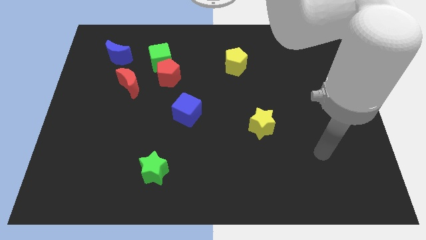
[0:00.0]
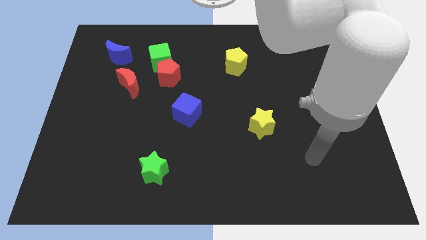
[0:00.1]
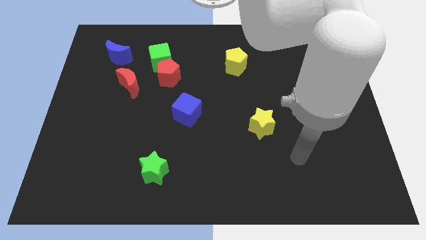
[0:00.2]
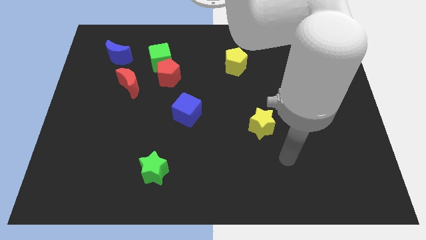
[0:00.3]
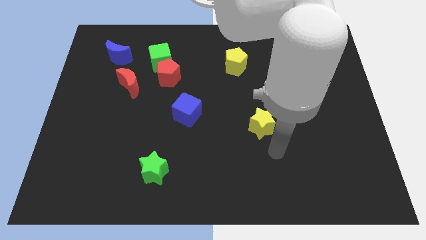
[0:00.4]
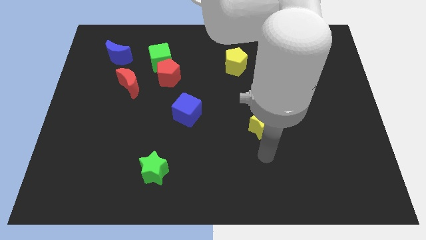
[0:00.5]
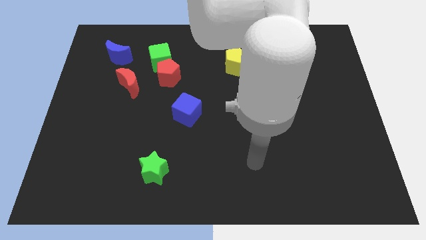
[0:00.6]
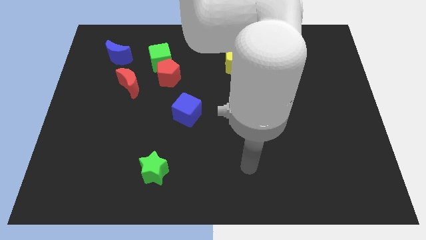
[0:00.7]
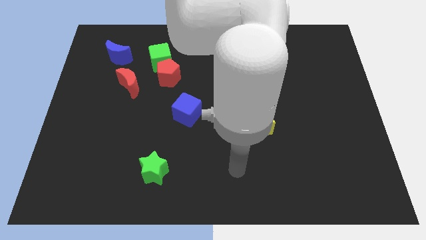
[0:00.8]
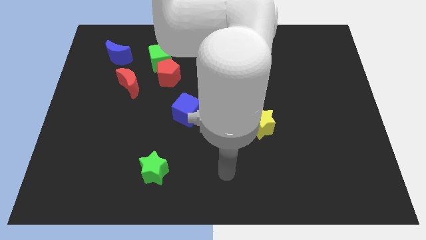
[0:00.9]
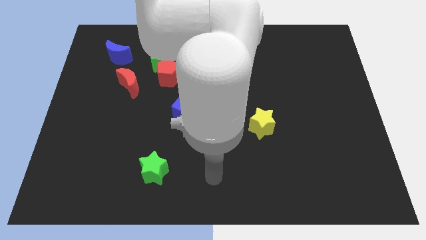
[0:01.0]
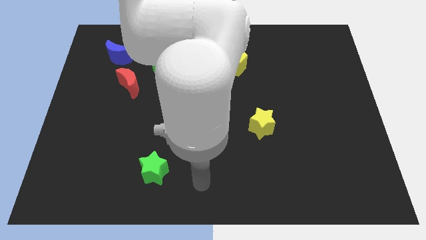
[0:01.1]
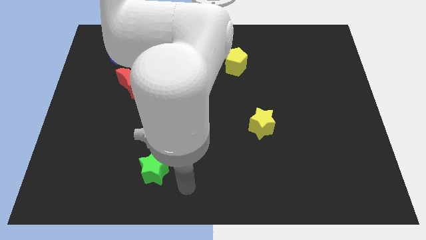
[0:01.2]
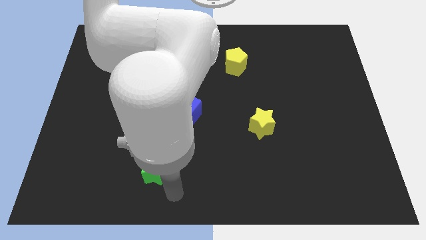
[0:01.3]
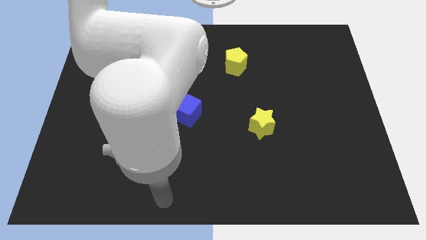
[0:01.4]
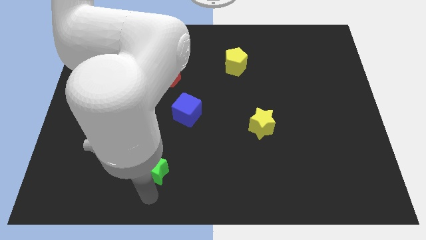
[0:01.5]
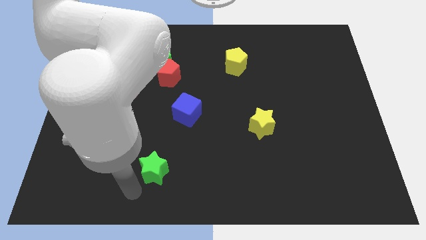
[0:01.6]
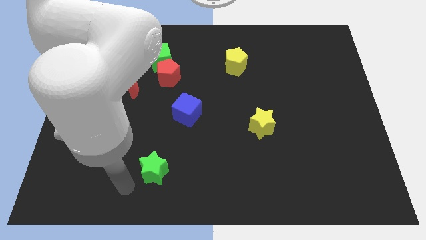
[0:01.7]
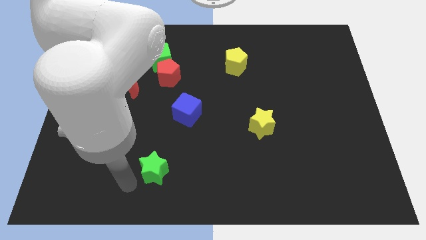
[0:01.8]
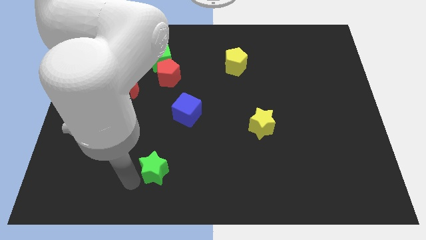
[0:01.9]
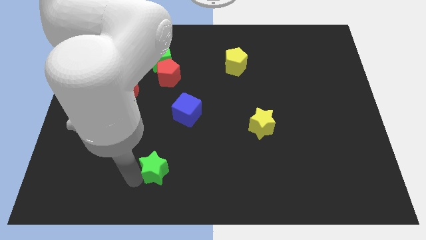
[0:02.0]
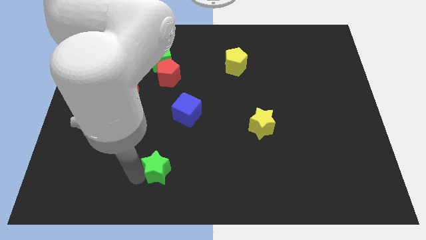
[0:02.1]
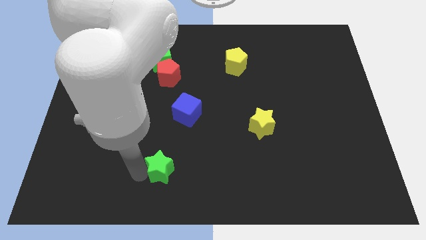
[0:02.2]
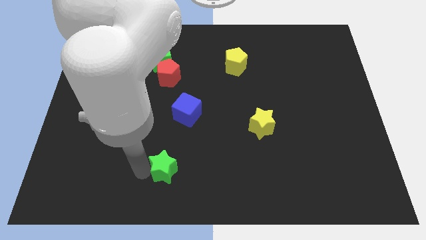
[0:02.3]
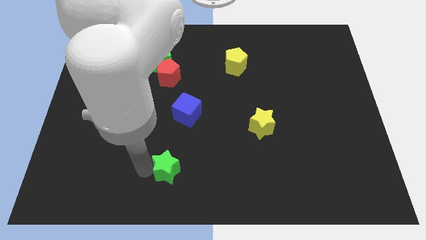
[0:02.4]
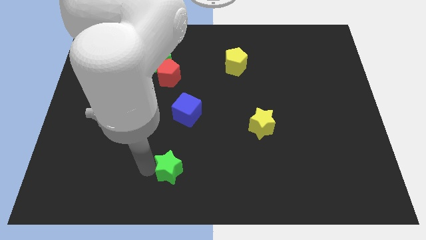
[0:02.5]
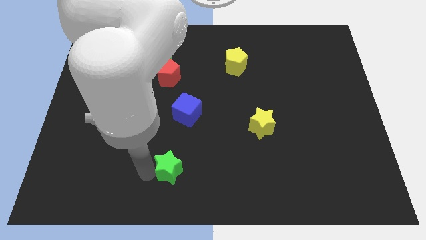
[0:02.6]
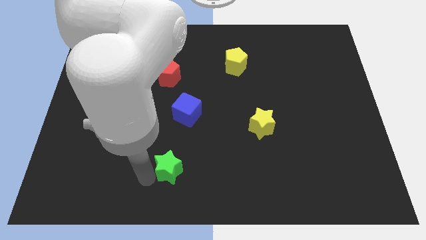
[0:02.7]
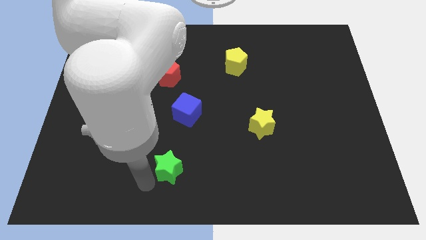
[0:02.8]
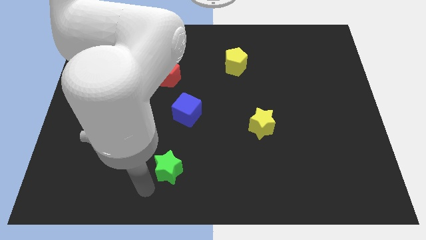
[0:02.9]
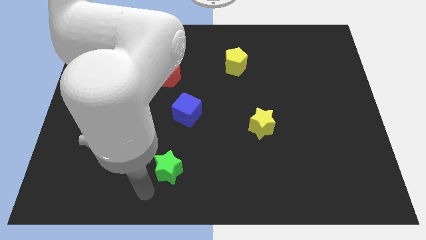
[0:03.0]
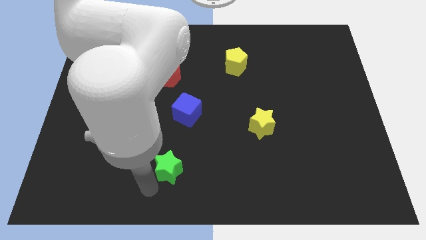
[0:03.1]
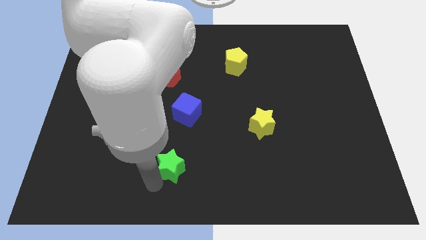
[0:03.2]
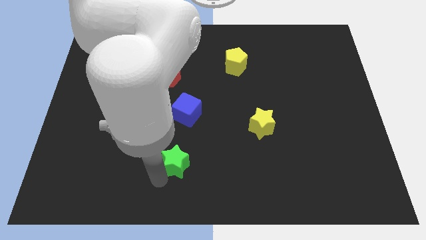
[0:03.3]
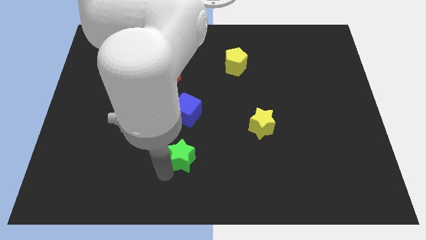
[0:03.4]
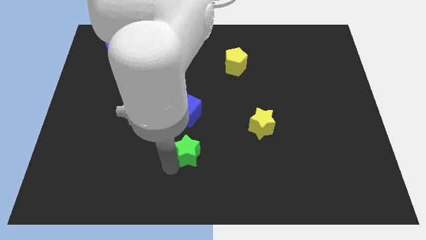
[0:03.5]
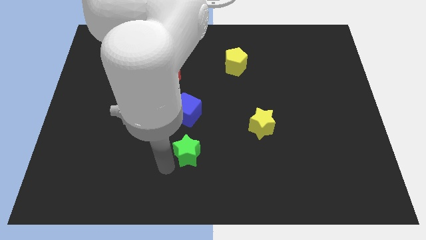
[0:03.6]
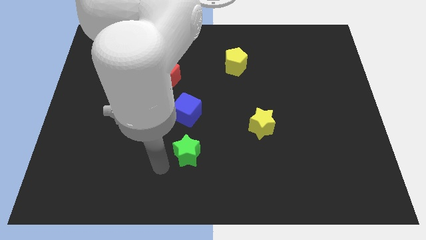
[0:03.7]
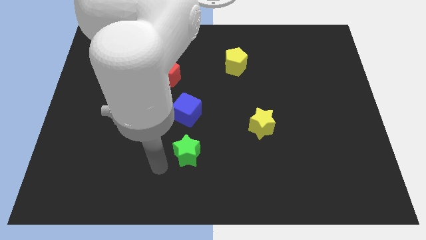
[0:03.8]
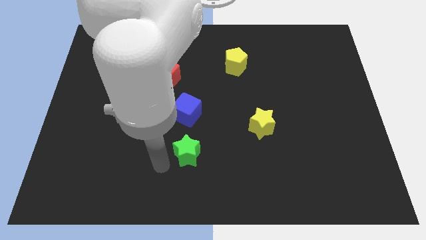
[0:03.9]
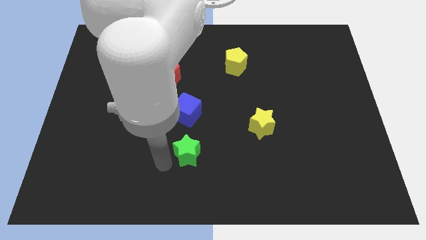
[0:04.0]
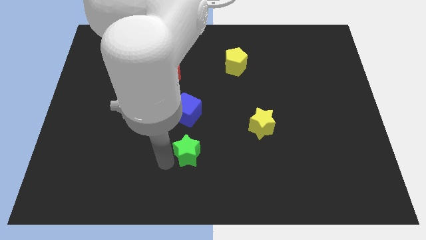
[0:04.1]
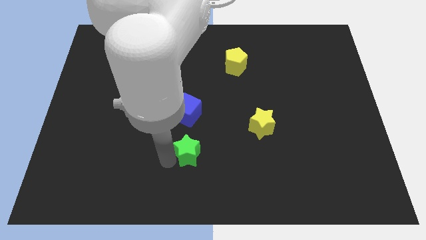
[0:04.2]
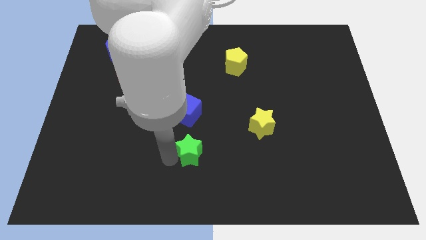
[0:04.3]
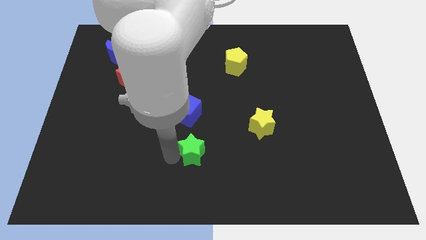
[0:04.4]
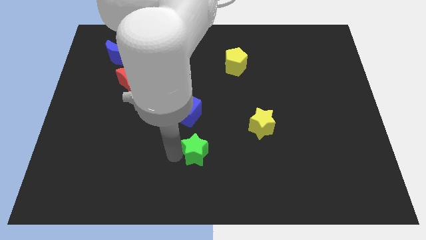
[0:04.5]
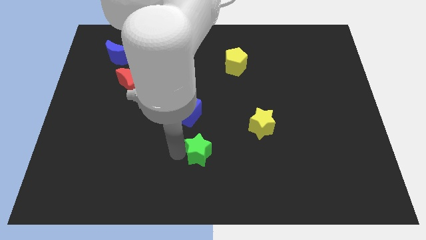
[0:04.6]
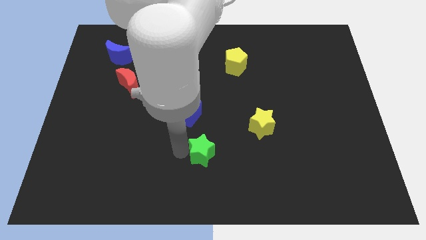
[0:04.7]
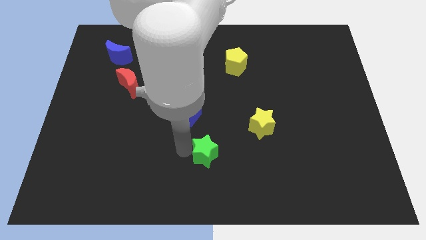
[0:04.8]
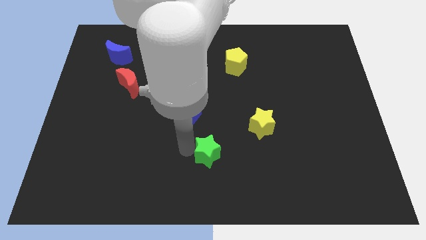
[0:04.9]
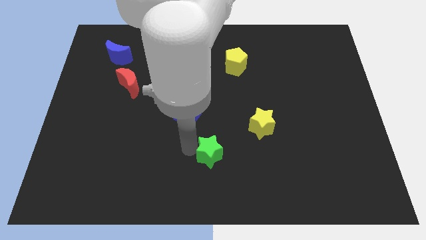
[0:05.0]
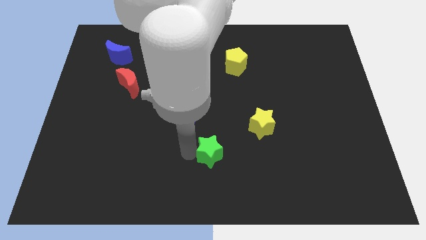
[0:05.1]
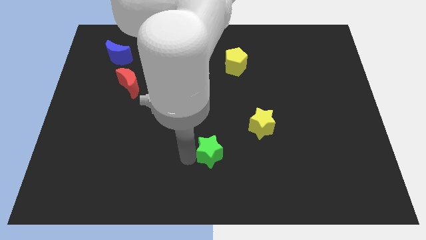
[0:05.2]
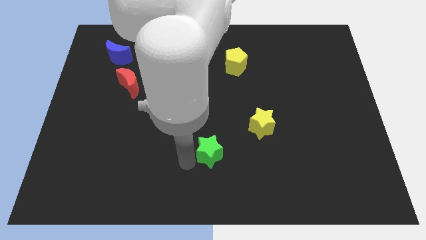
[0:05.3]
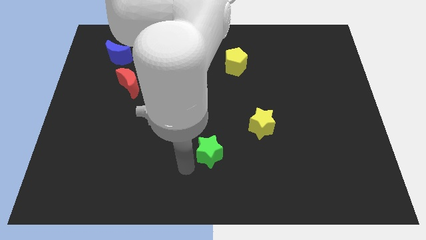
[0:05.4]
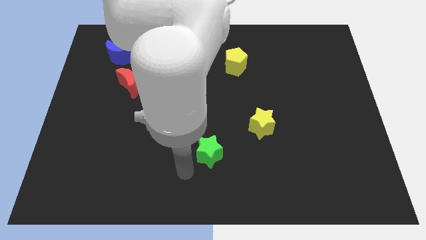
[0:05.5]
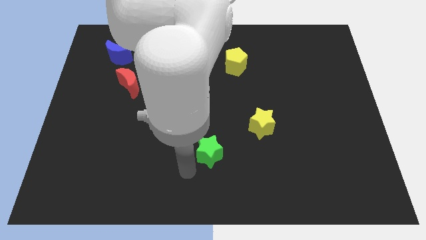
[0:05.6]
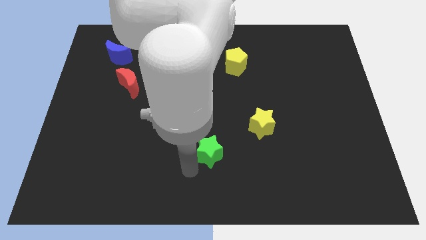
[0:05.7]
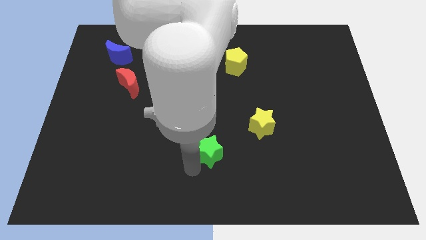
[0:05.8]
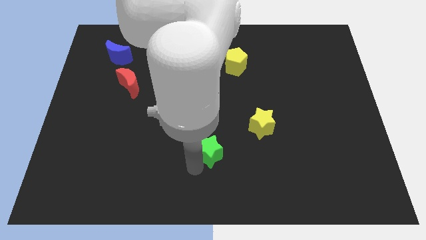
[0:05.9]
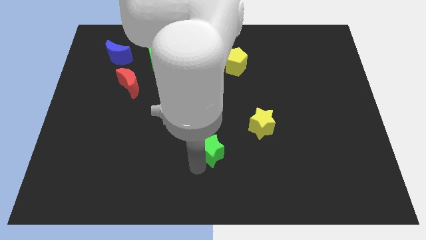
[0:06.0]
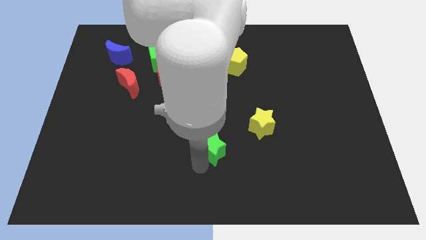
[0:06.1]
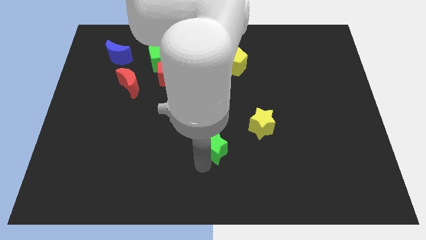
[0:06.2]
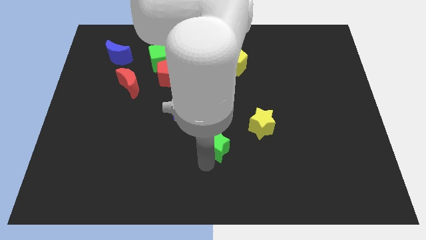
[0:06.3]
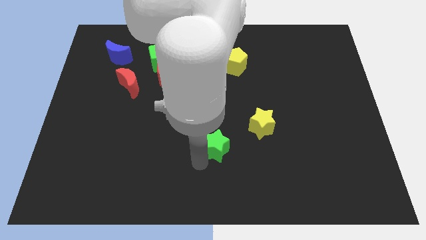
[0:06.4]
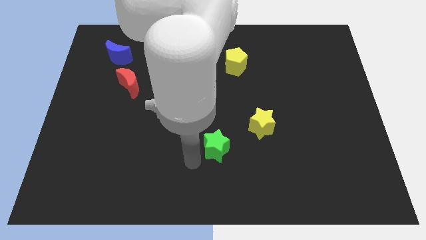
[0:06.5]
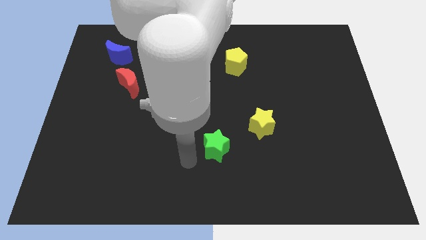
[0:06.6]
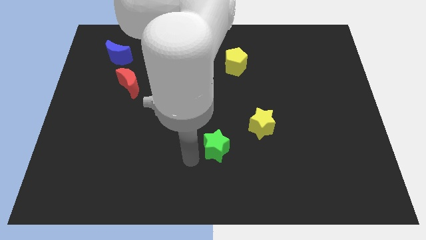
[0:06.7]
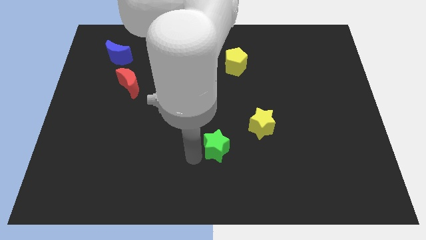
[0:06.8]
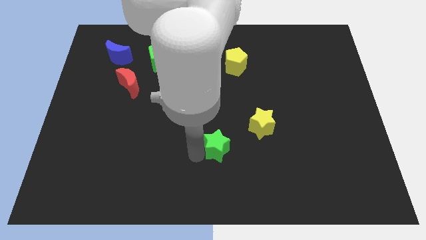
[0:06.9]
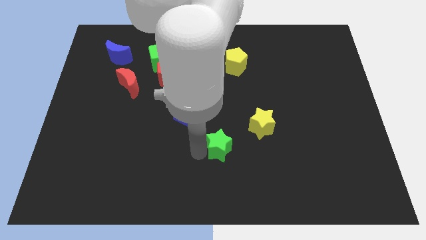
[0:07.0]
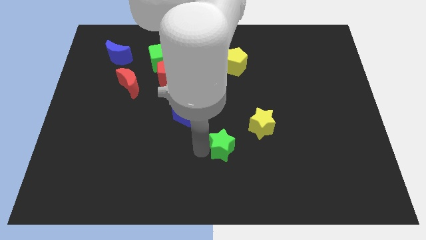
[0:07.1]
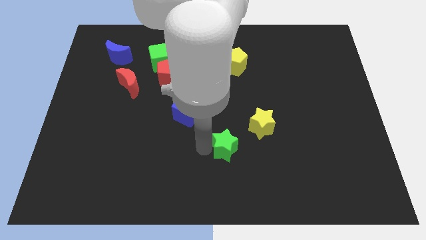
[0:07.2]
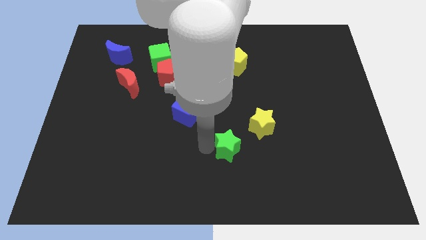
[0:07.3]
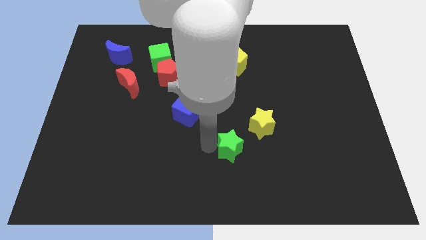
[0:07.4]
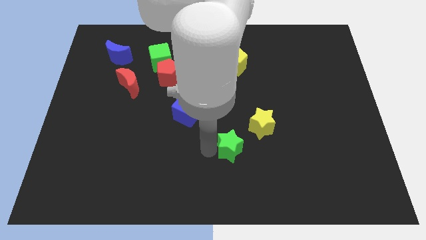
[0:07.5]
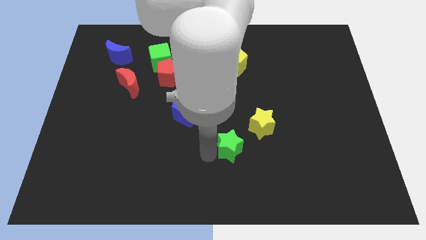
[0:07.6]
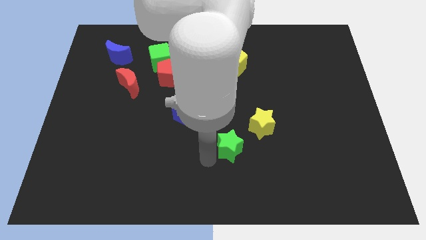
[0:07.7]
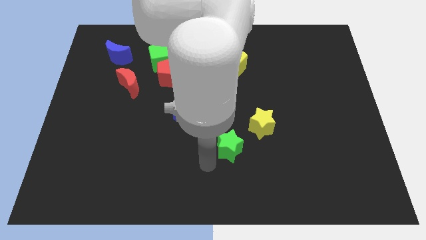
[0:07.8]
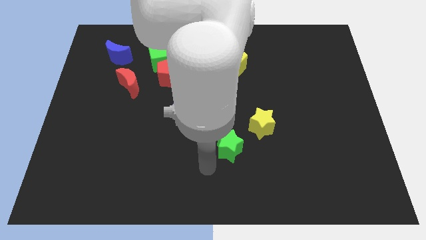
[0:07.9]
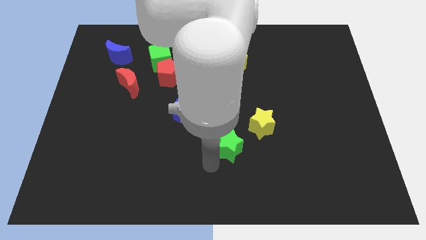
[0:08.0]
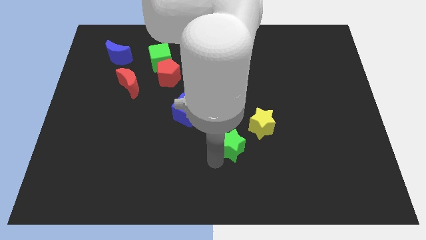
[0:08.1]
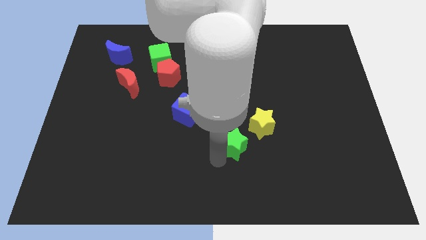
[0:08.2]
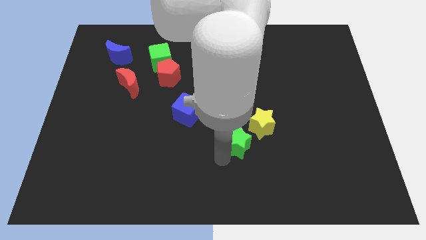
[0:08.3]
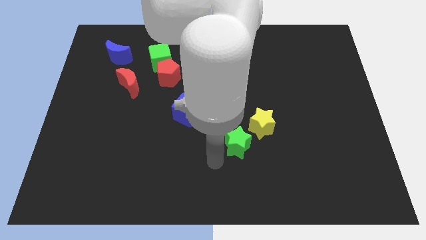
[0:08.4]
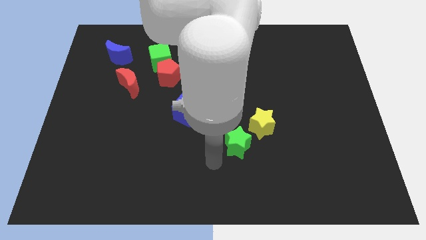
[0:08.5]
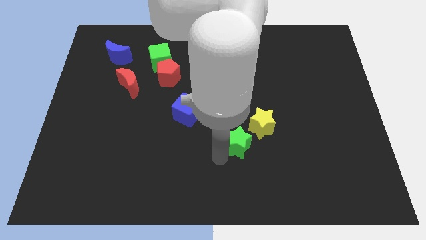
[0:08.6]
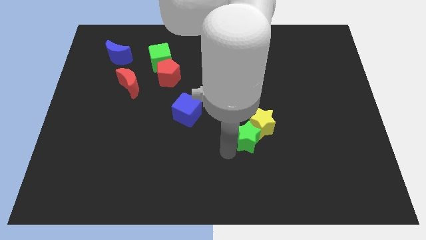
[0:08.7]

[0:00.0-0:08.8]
push the green star next to the yellow star
